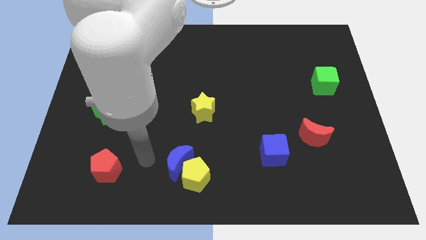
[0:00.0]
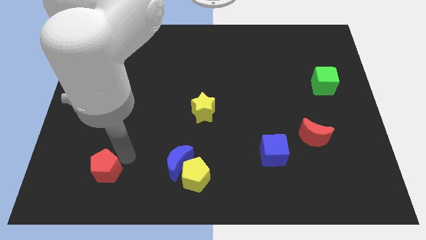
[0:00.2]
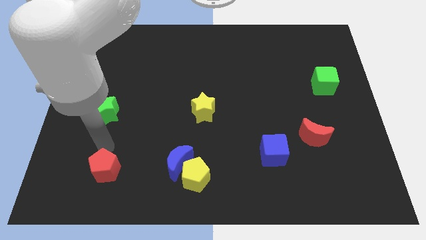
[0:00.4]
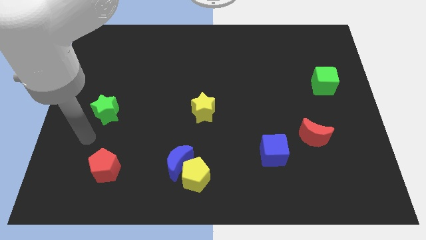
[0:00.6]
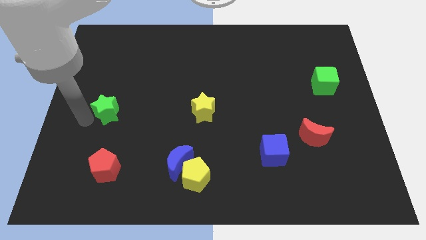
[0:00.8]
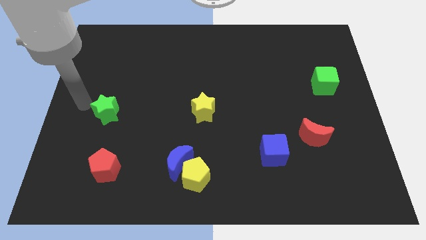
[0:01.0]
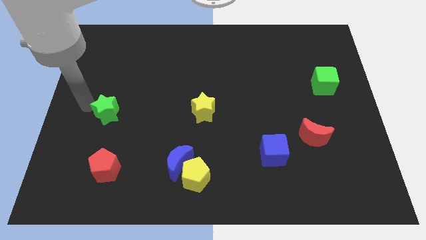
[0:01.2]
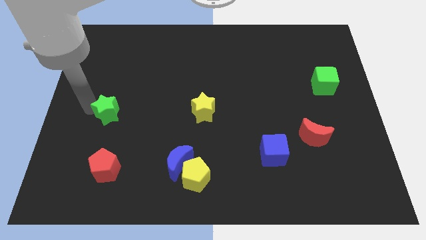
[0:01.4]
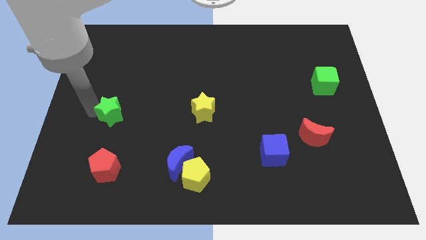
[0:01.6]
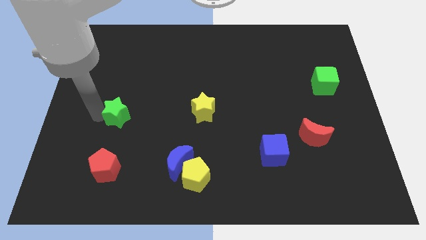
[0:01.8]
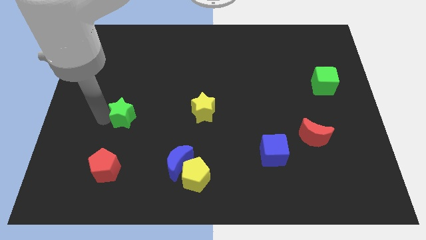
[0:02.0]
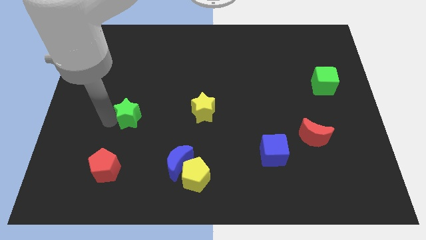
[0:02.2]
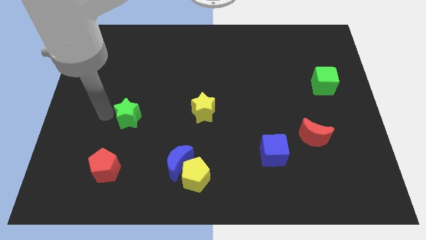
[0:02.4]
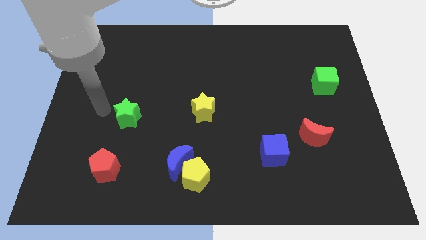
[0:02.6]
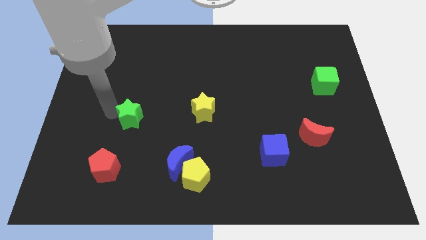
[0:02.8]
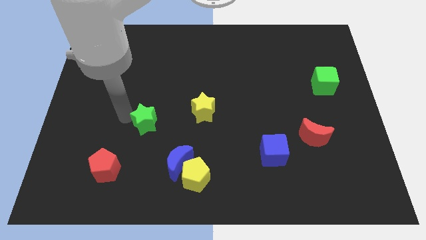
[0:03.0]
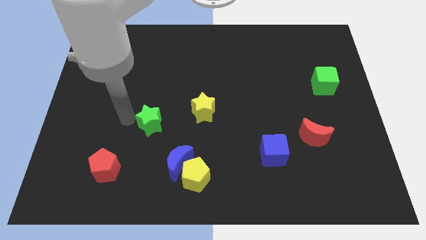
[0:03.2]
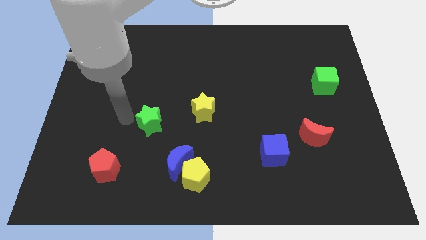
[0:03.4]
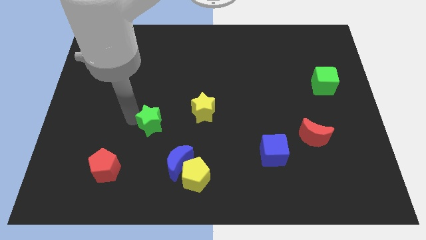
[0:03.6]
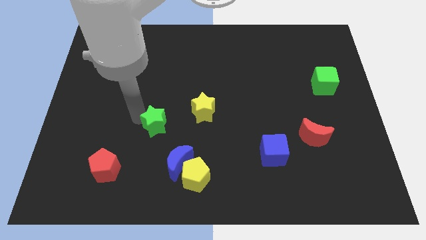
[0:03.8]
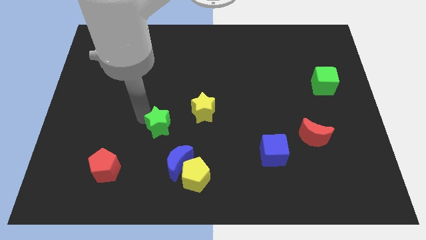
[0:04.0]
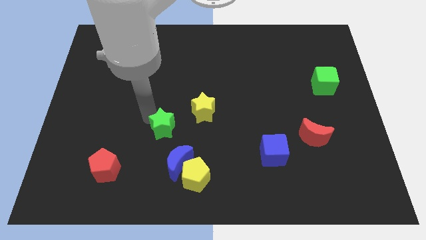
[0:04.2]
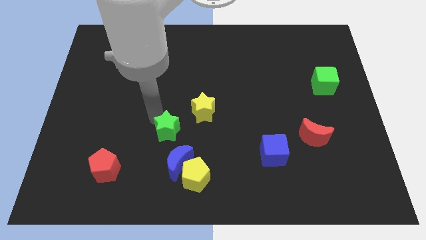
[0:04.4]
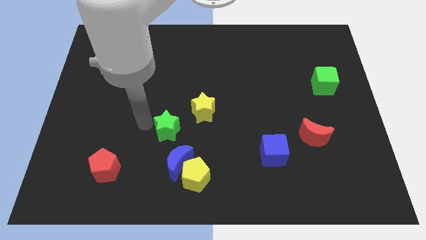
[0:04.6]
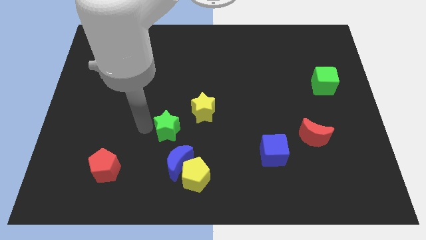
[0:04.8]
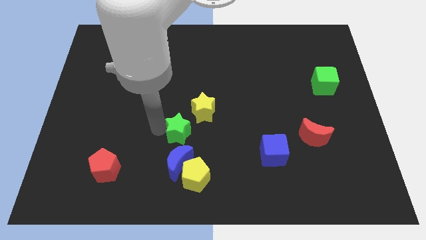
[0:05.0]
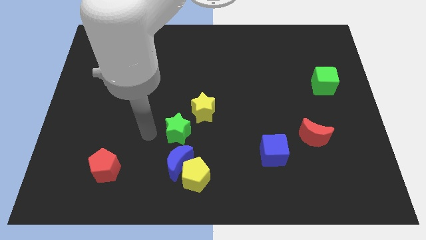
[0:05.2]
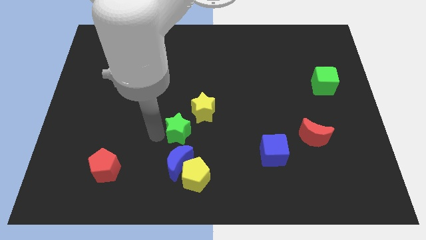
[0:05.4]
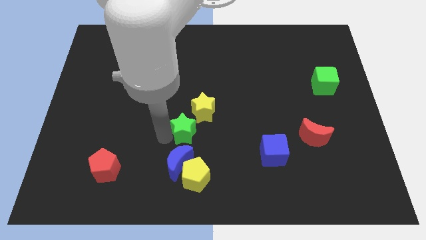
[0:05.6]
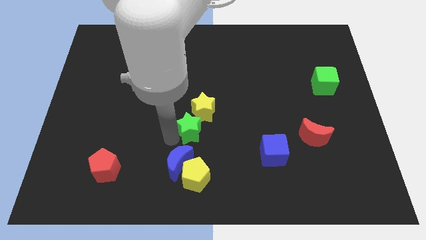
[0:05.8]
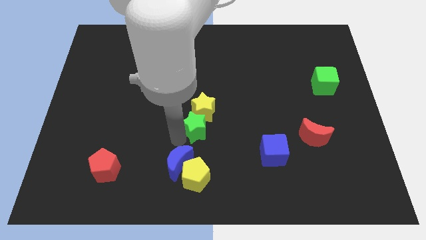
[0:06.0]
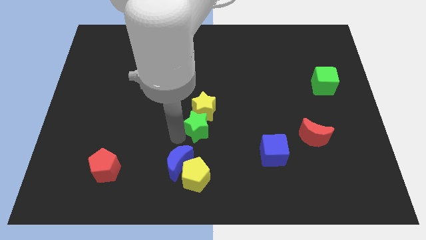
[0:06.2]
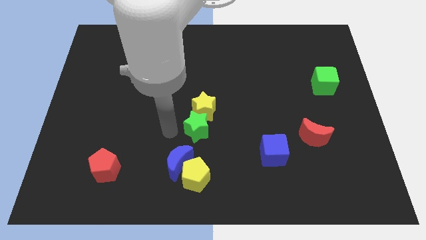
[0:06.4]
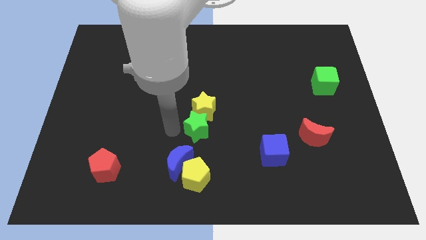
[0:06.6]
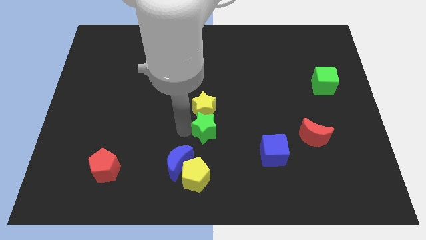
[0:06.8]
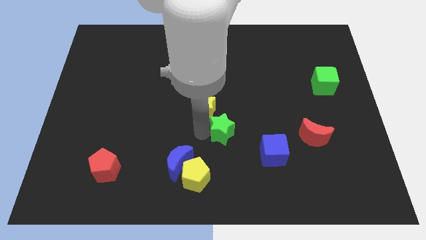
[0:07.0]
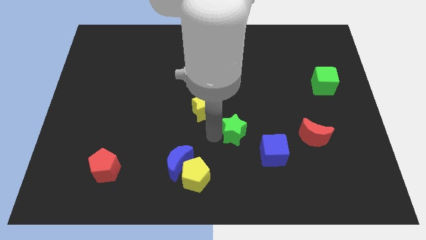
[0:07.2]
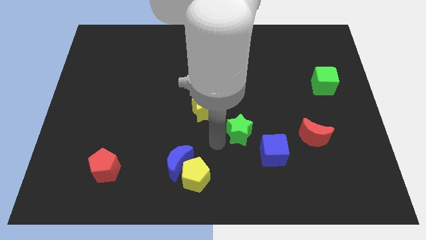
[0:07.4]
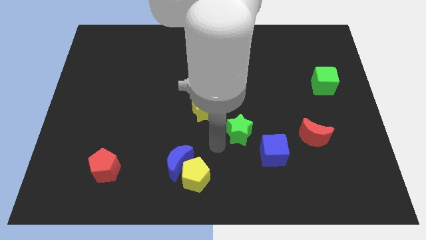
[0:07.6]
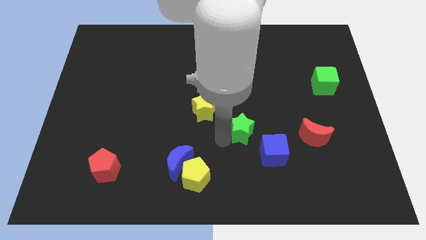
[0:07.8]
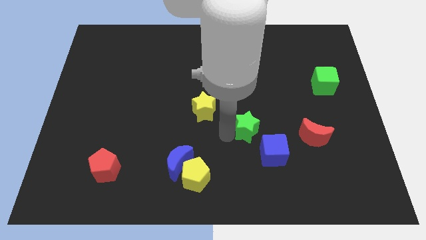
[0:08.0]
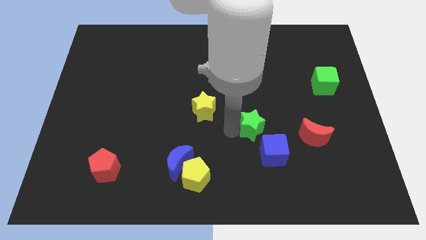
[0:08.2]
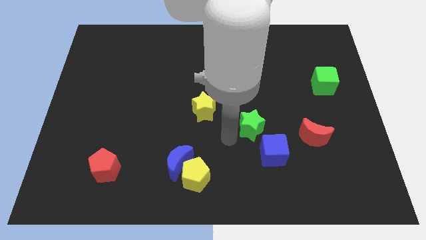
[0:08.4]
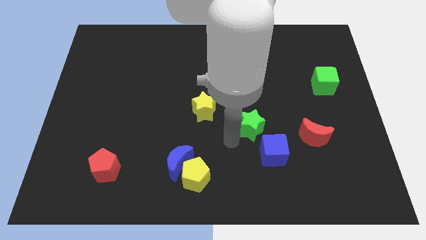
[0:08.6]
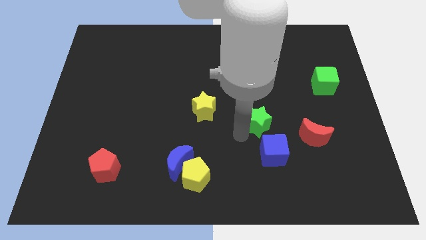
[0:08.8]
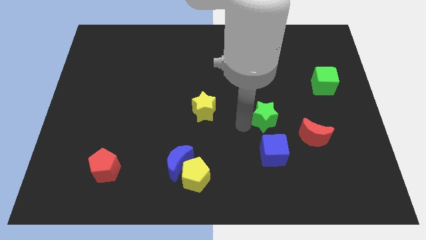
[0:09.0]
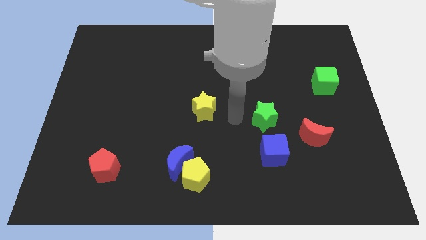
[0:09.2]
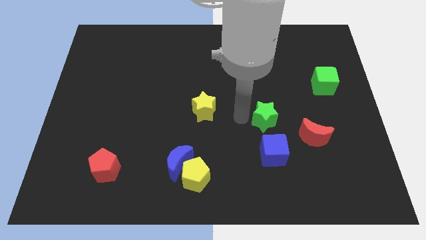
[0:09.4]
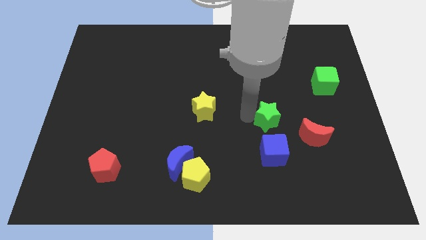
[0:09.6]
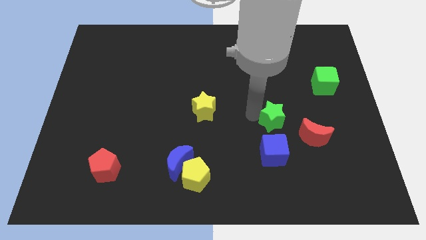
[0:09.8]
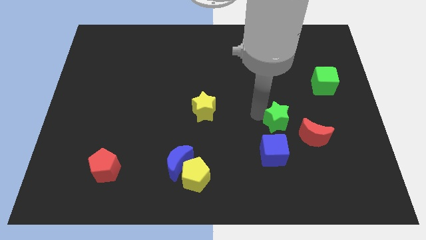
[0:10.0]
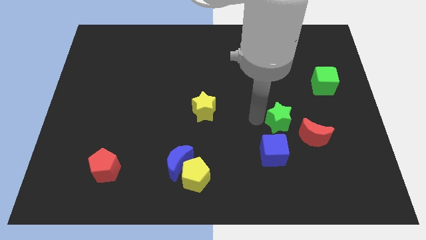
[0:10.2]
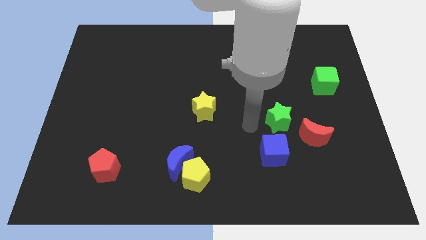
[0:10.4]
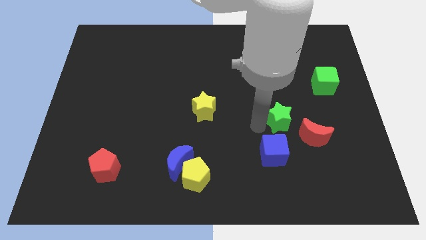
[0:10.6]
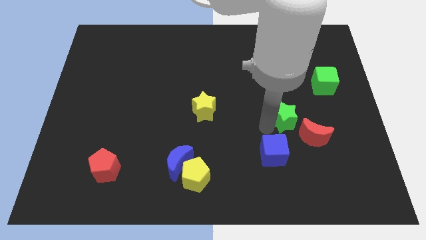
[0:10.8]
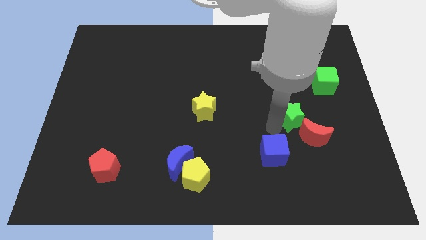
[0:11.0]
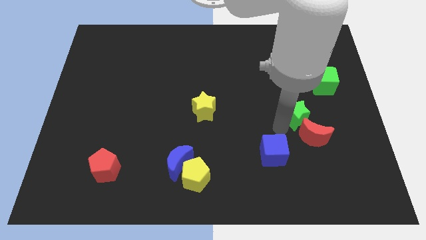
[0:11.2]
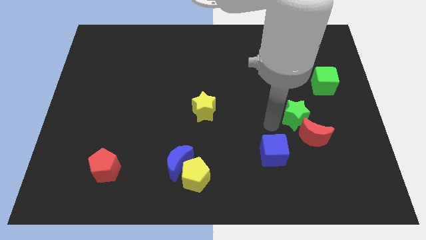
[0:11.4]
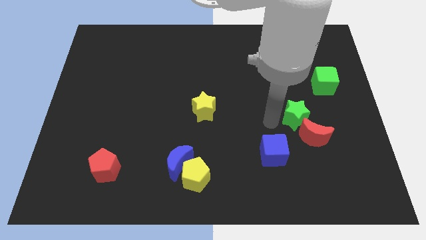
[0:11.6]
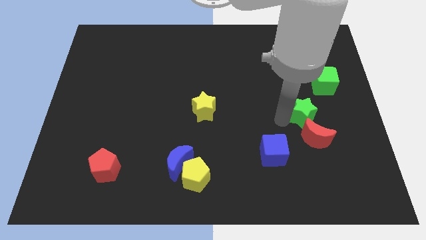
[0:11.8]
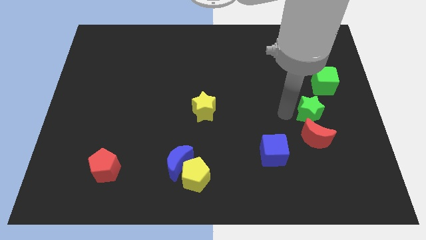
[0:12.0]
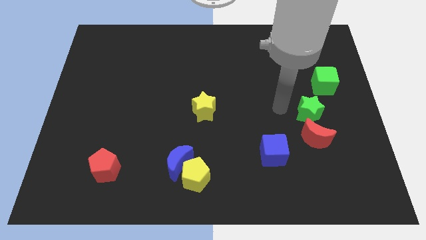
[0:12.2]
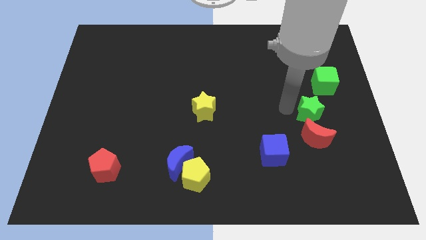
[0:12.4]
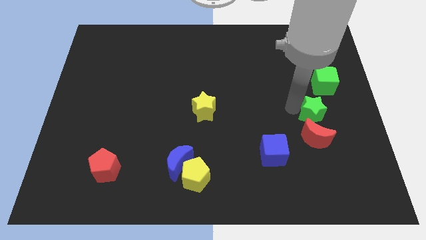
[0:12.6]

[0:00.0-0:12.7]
put the green star to the top right of the red moon

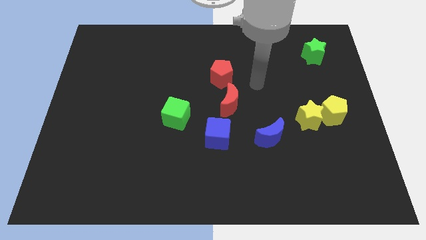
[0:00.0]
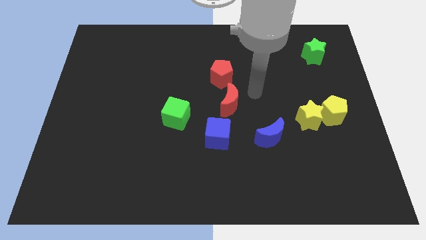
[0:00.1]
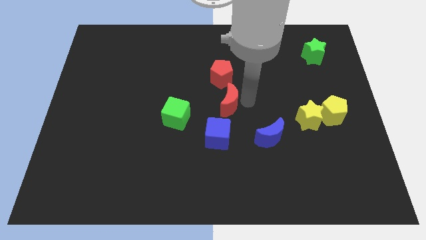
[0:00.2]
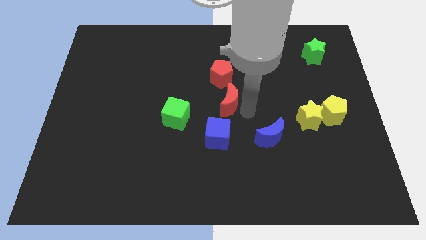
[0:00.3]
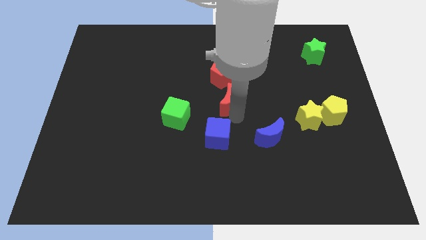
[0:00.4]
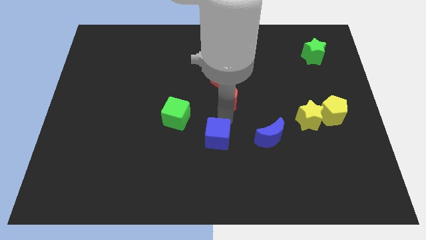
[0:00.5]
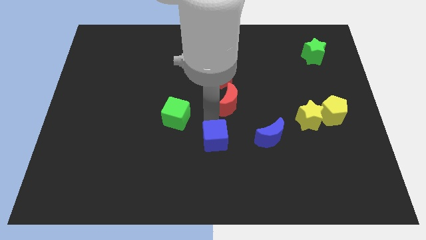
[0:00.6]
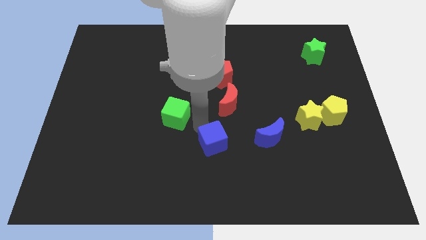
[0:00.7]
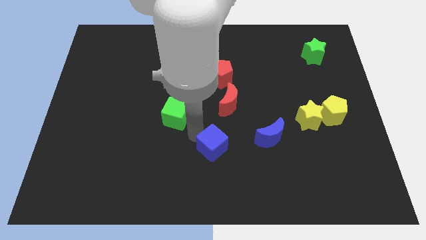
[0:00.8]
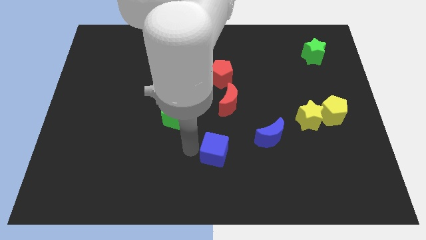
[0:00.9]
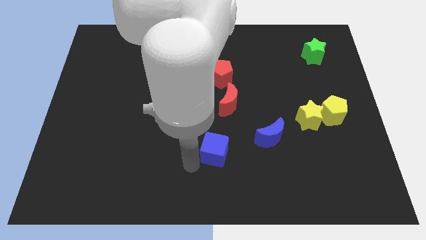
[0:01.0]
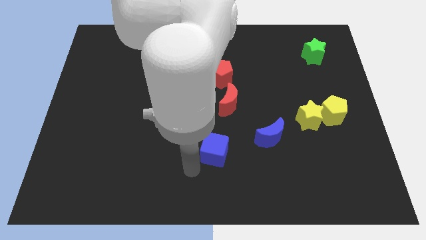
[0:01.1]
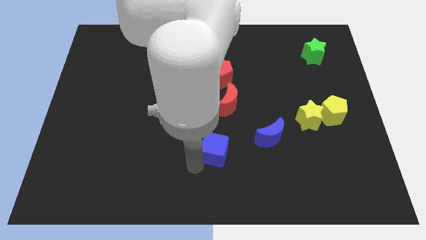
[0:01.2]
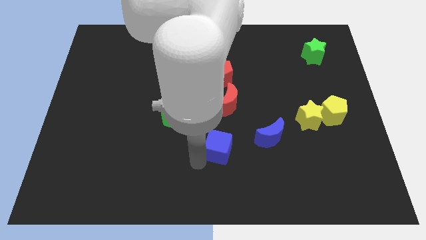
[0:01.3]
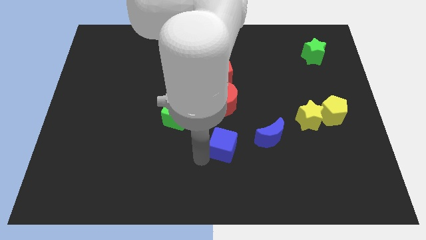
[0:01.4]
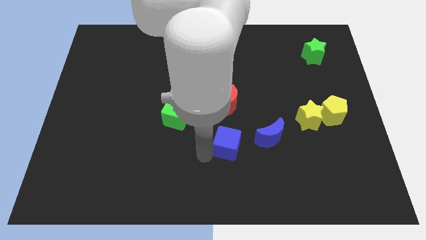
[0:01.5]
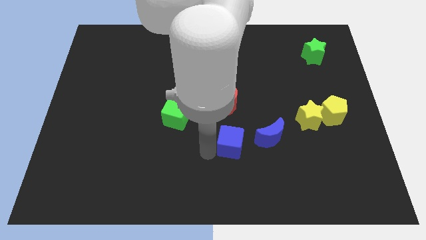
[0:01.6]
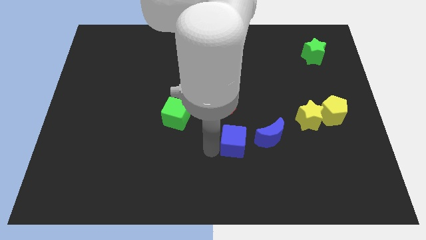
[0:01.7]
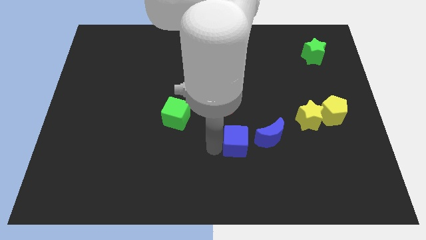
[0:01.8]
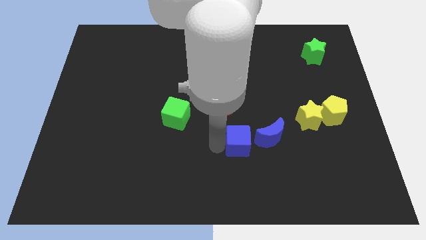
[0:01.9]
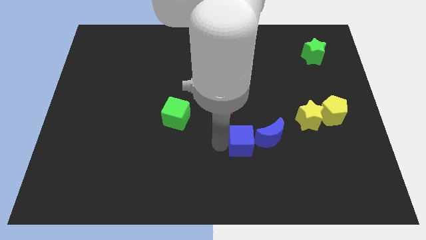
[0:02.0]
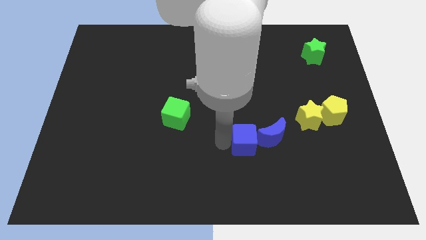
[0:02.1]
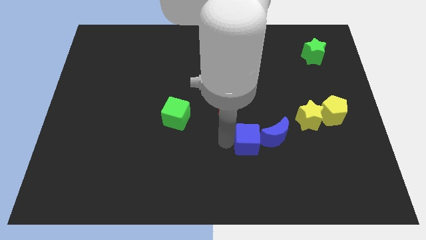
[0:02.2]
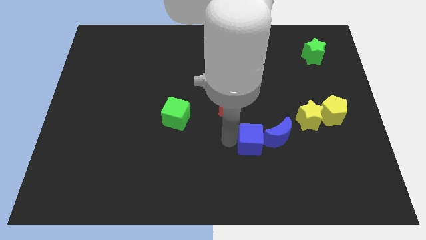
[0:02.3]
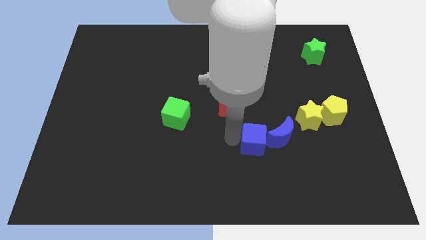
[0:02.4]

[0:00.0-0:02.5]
move the blue cube to the bottom right side of the red moon
